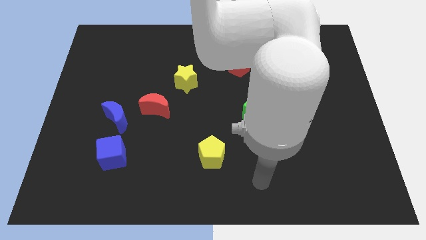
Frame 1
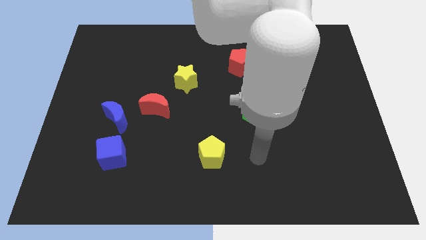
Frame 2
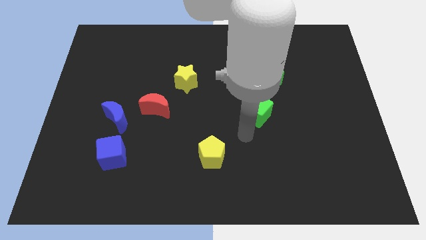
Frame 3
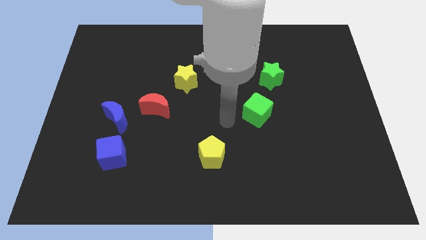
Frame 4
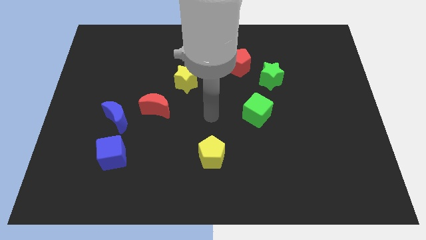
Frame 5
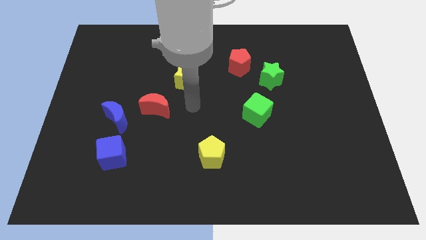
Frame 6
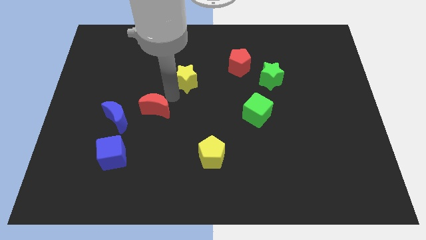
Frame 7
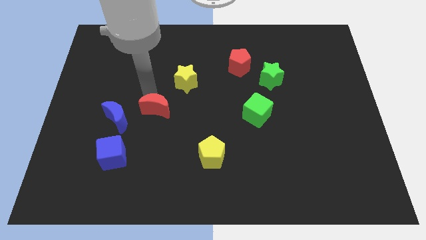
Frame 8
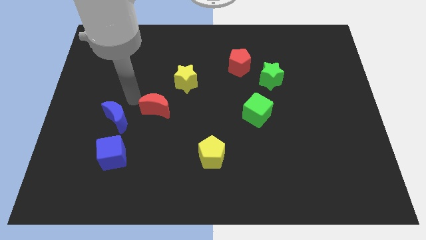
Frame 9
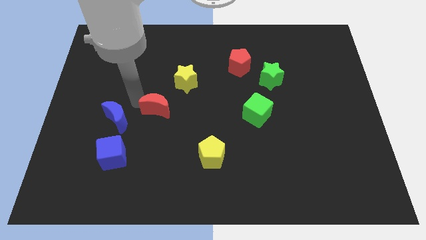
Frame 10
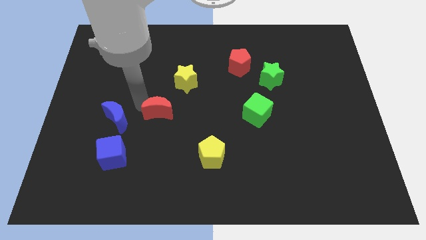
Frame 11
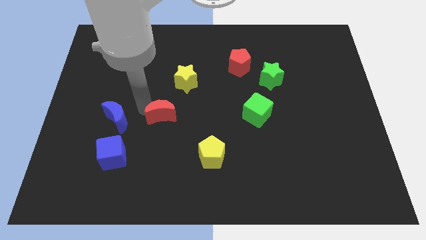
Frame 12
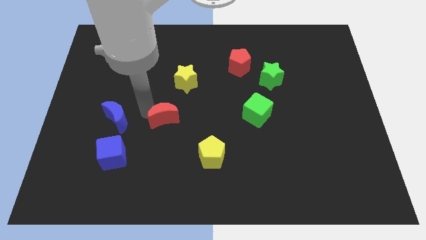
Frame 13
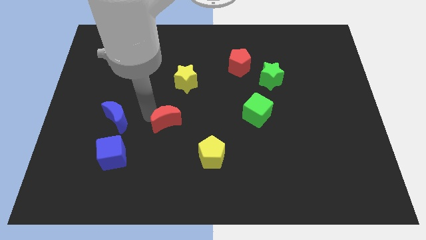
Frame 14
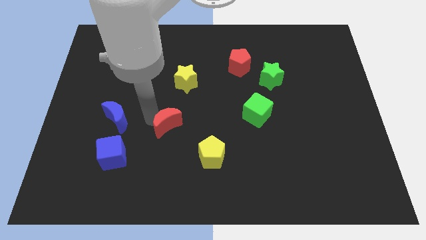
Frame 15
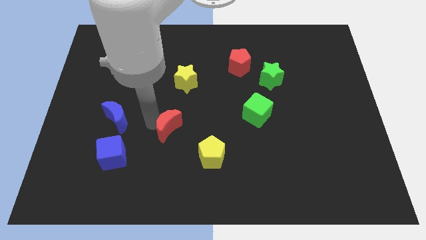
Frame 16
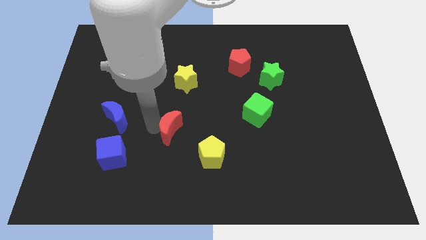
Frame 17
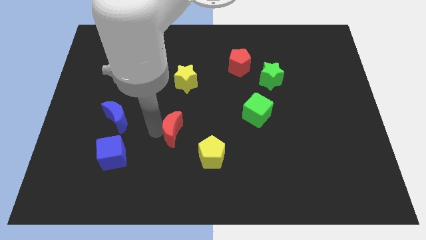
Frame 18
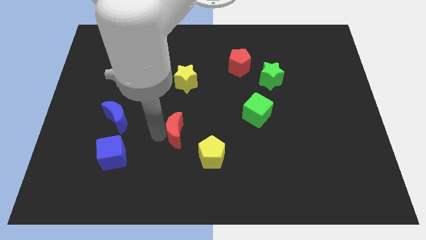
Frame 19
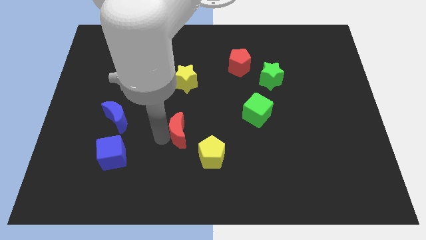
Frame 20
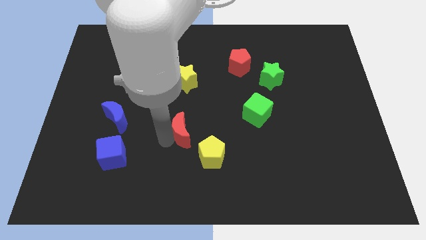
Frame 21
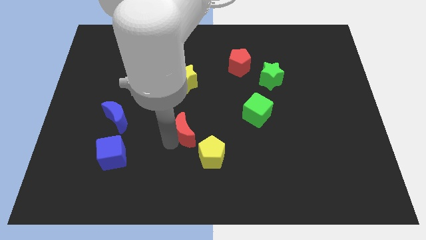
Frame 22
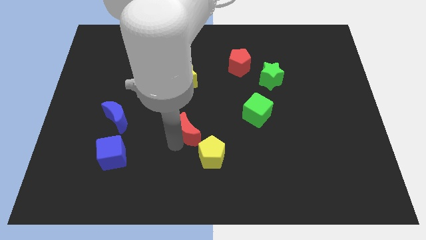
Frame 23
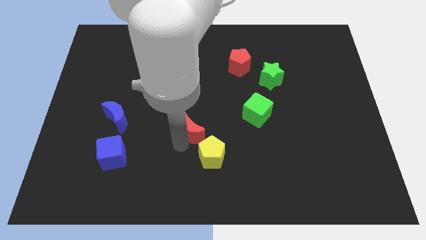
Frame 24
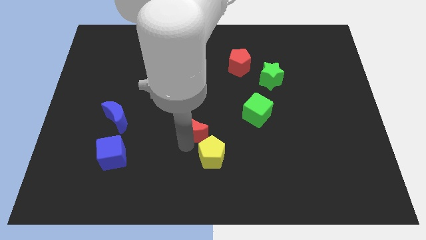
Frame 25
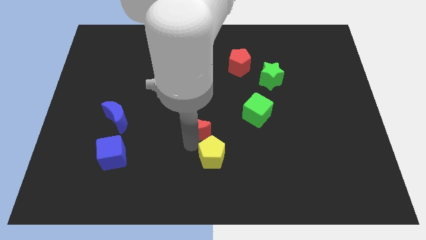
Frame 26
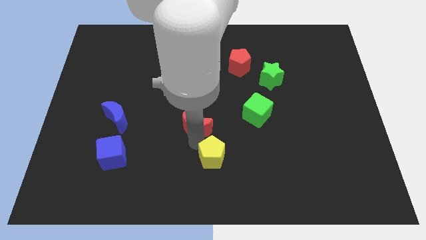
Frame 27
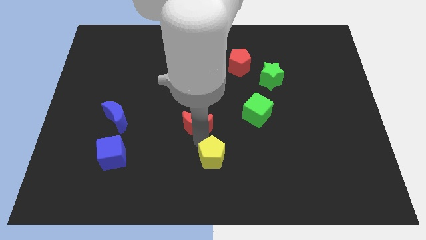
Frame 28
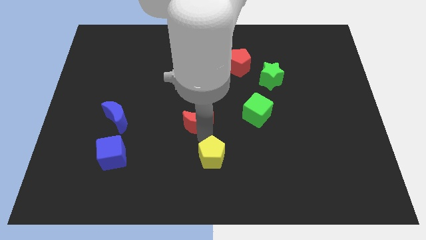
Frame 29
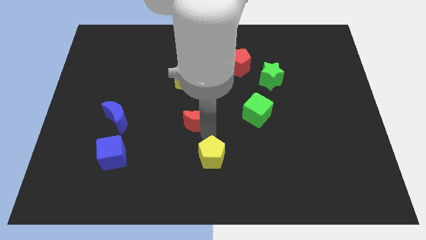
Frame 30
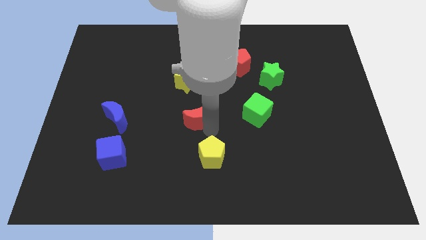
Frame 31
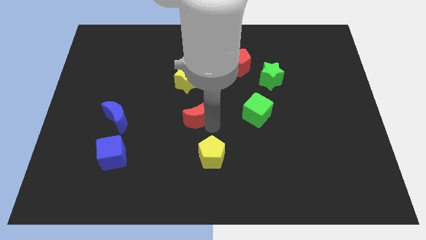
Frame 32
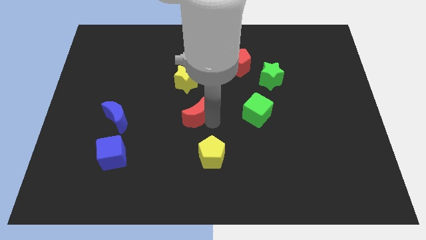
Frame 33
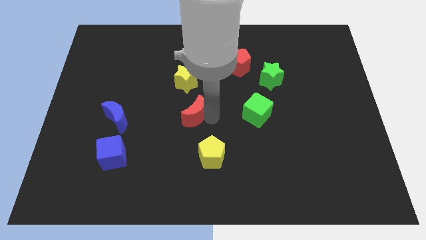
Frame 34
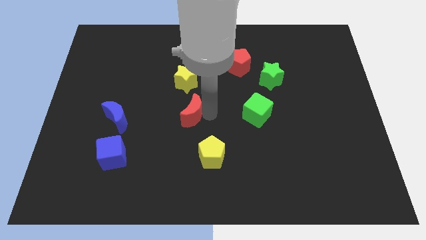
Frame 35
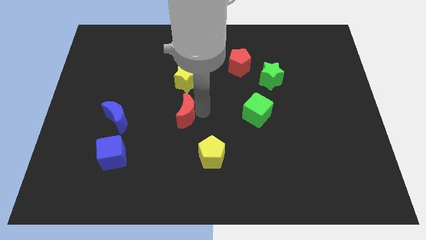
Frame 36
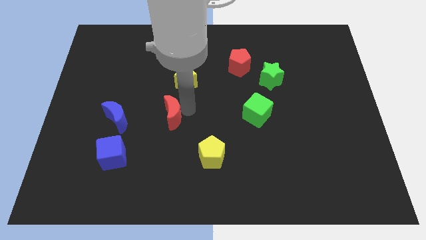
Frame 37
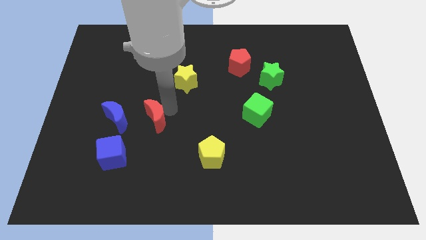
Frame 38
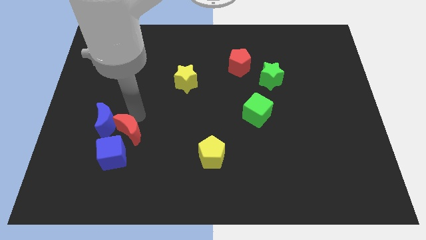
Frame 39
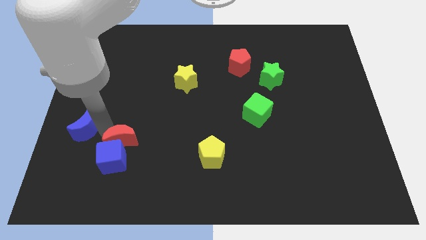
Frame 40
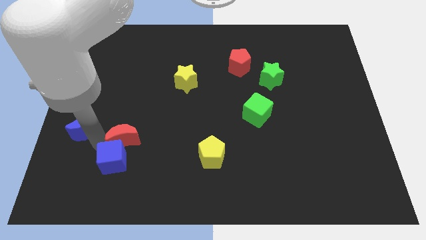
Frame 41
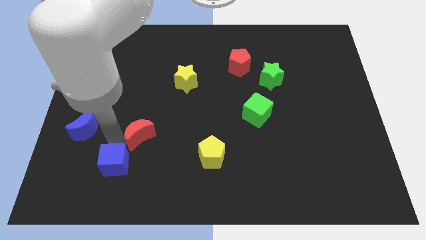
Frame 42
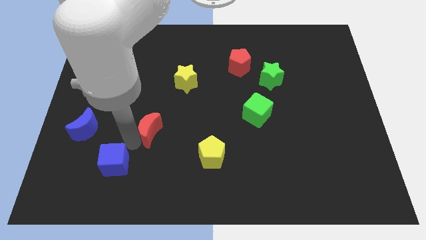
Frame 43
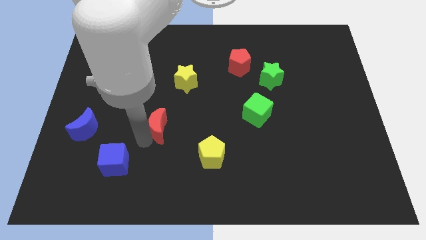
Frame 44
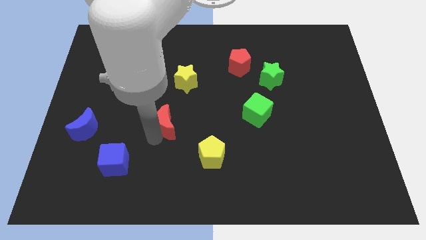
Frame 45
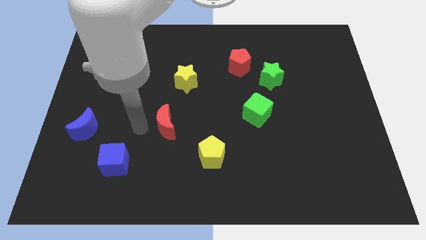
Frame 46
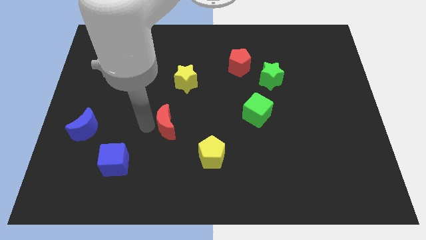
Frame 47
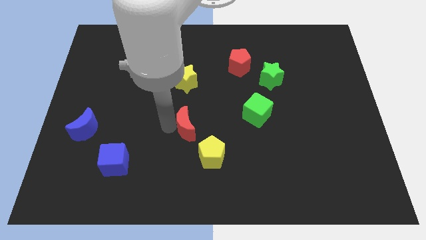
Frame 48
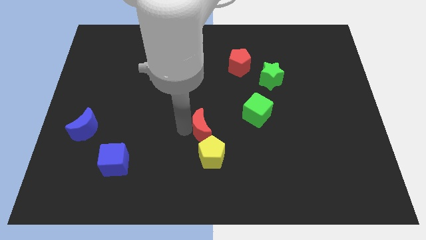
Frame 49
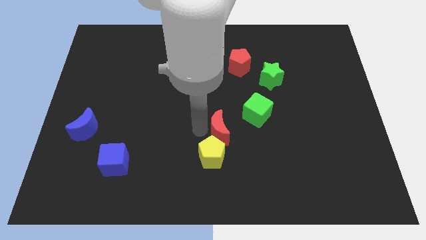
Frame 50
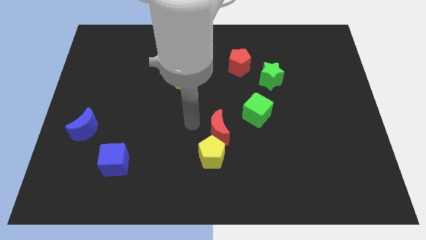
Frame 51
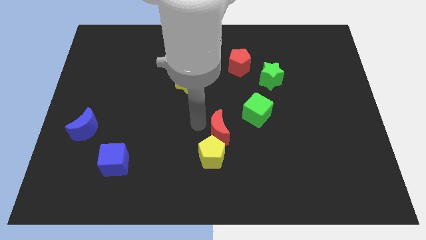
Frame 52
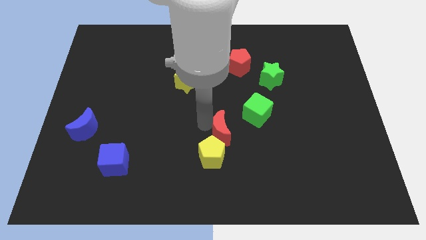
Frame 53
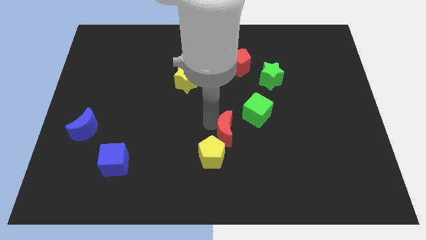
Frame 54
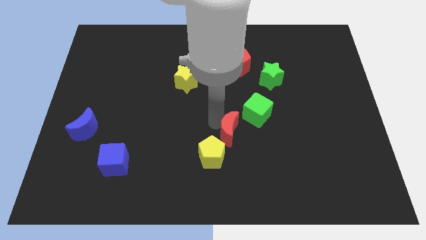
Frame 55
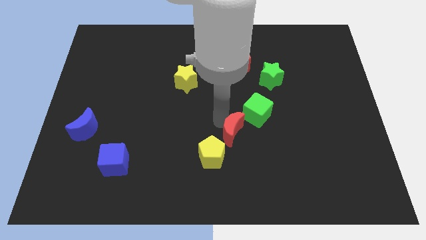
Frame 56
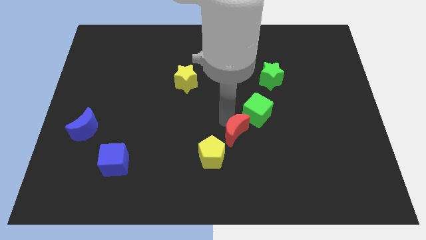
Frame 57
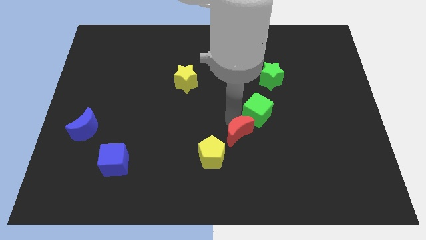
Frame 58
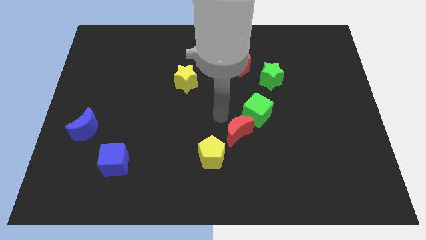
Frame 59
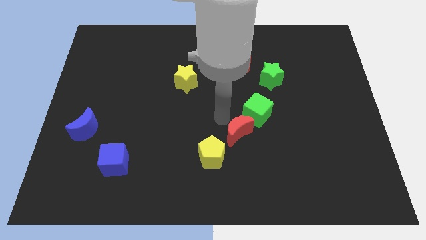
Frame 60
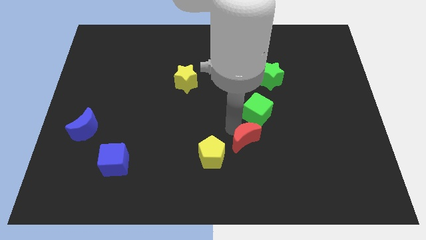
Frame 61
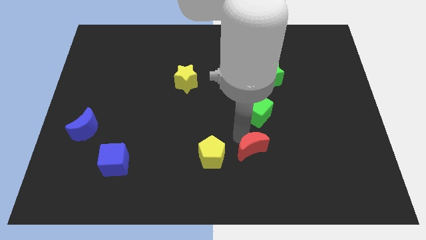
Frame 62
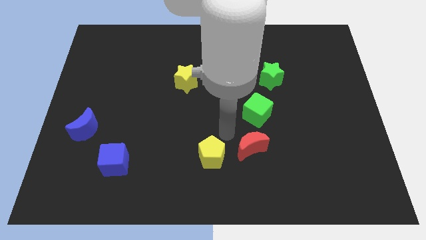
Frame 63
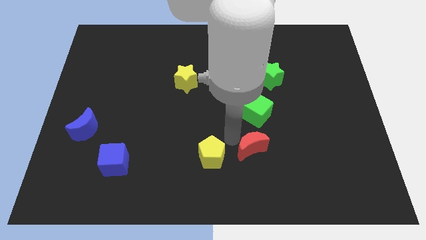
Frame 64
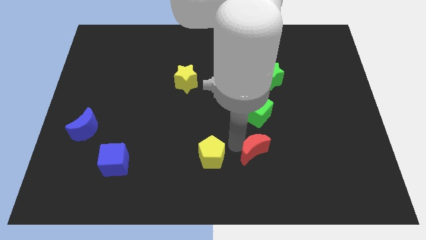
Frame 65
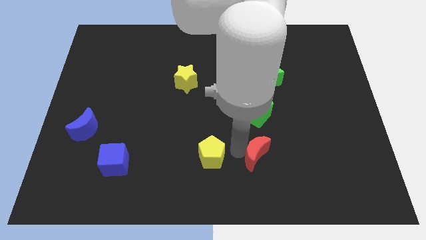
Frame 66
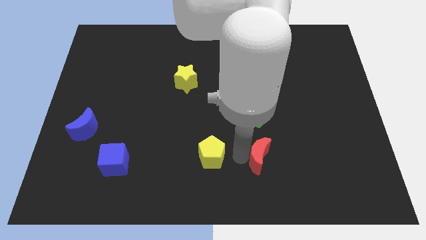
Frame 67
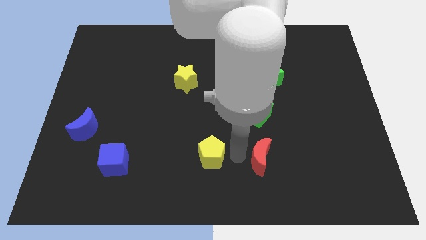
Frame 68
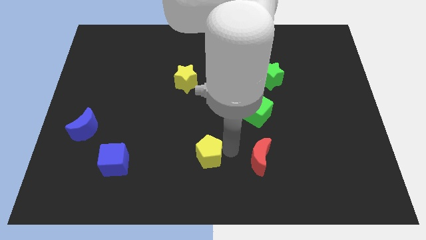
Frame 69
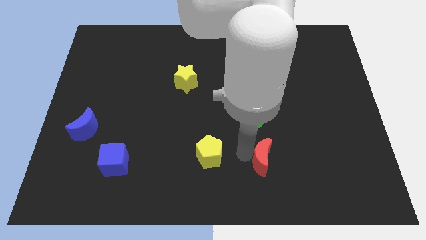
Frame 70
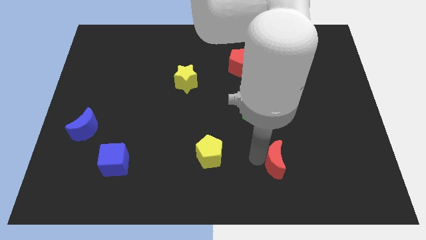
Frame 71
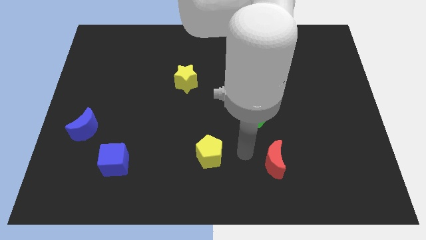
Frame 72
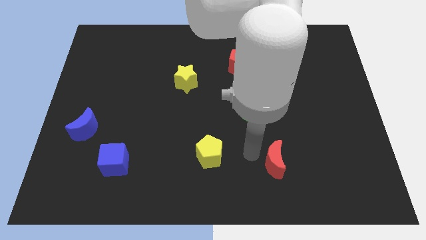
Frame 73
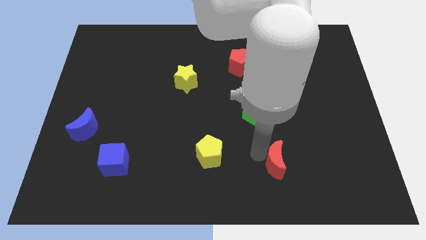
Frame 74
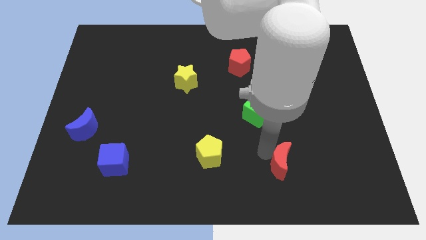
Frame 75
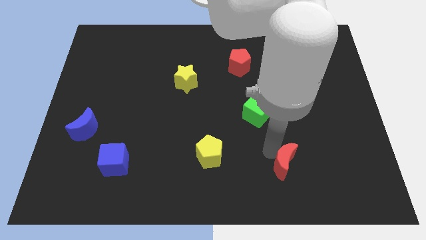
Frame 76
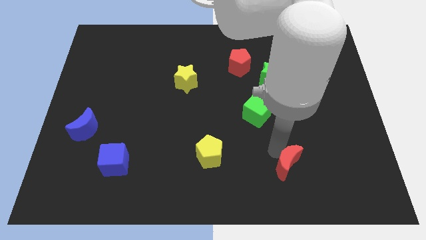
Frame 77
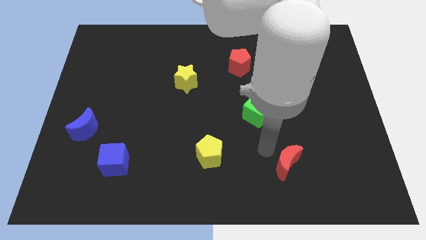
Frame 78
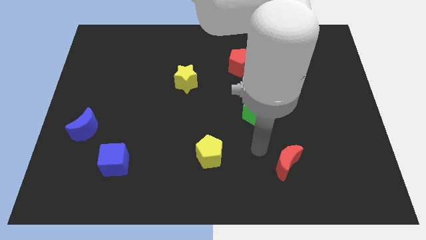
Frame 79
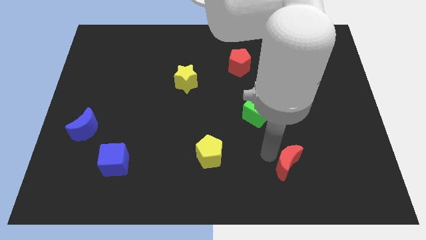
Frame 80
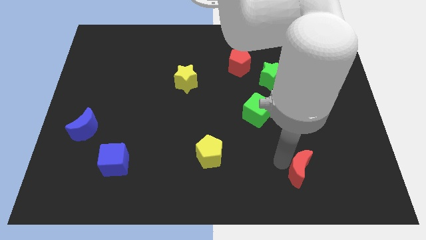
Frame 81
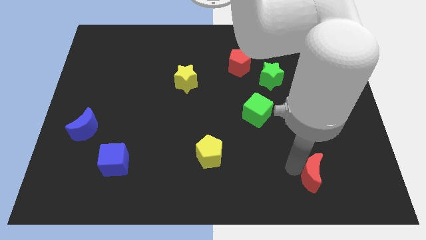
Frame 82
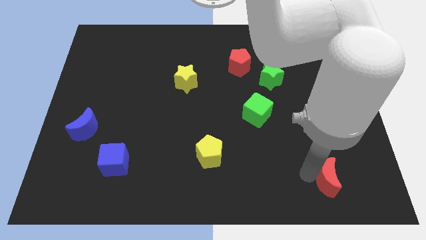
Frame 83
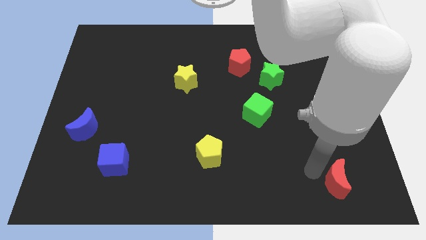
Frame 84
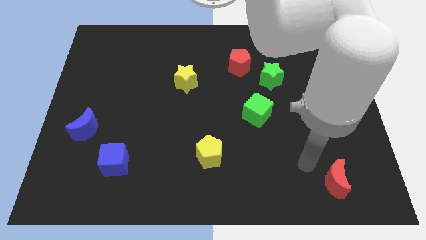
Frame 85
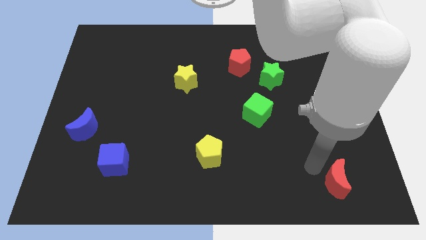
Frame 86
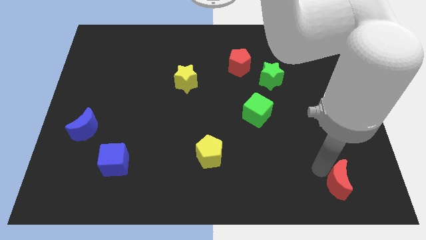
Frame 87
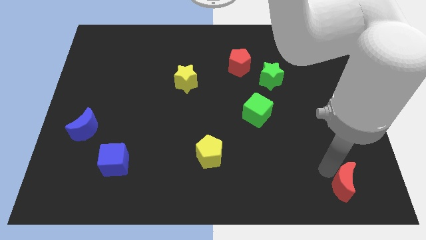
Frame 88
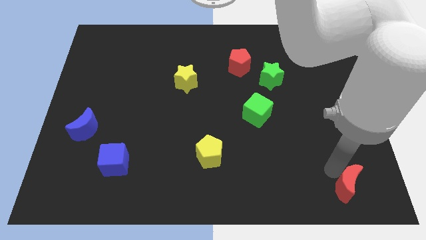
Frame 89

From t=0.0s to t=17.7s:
move the red moon to the bottom right
